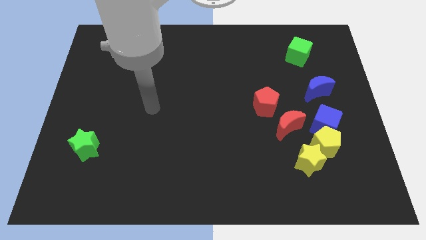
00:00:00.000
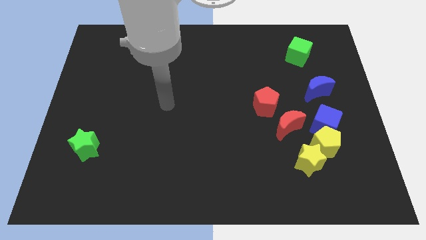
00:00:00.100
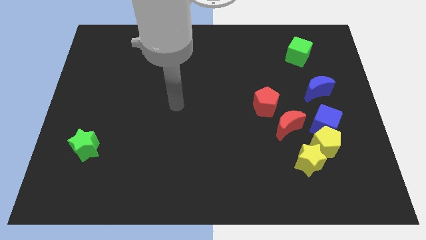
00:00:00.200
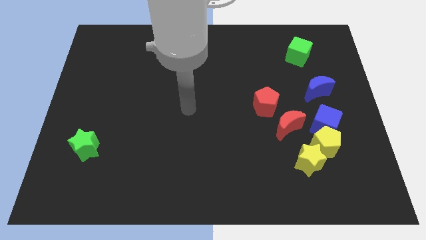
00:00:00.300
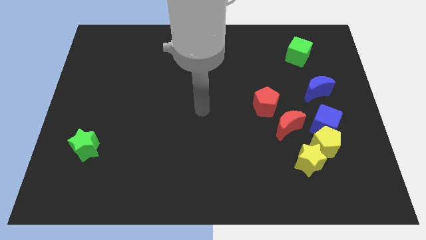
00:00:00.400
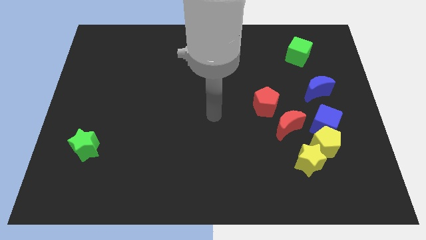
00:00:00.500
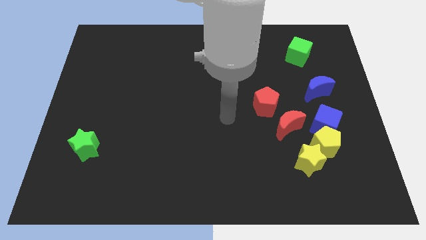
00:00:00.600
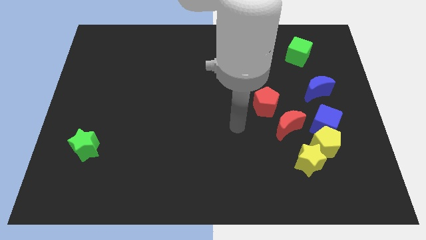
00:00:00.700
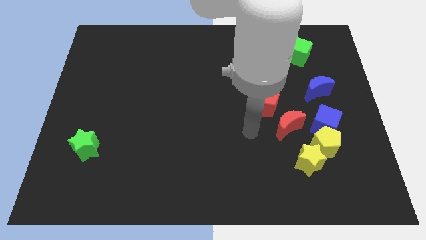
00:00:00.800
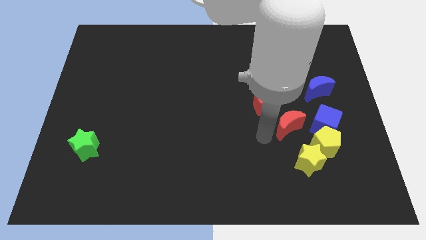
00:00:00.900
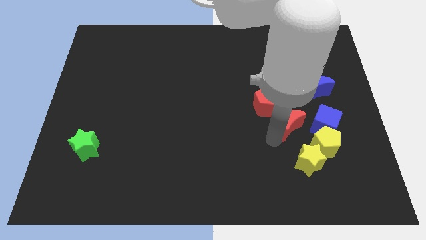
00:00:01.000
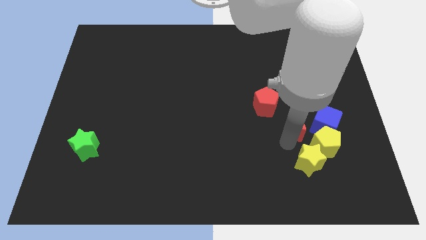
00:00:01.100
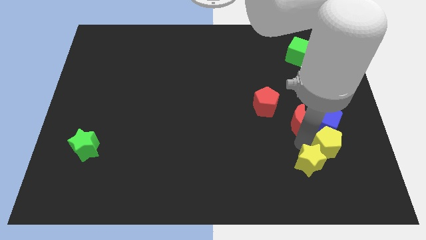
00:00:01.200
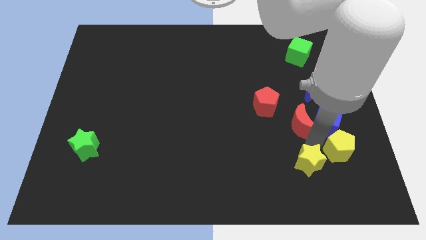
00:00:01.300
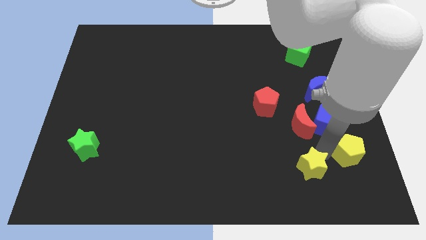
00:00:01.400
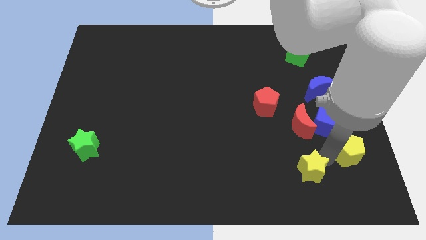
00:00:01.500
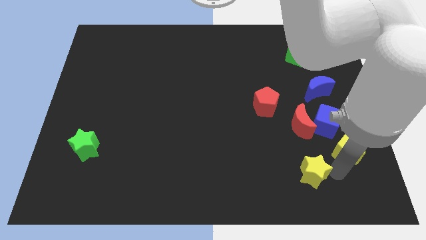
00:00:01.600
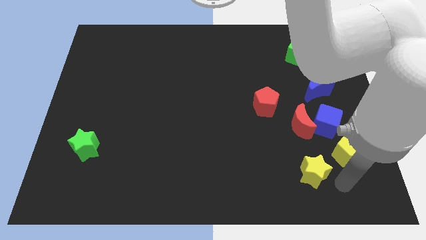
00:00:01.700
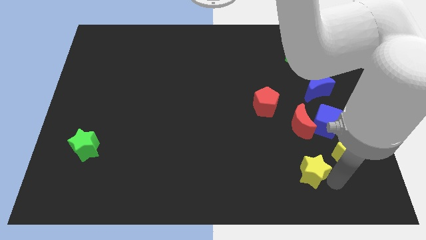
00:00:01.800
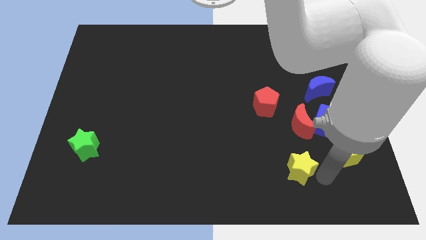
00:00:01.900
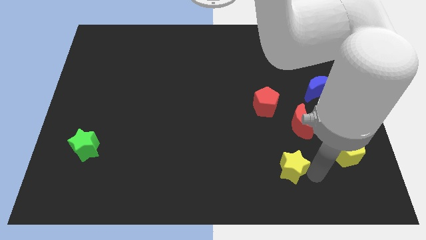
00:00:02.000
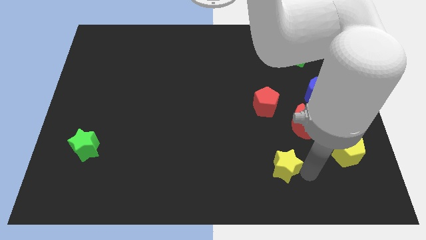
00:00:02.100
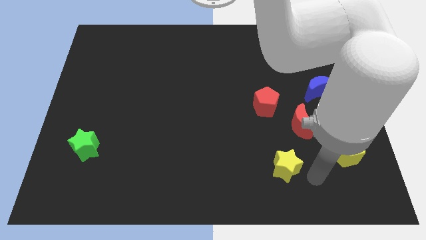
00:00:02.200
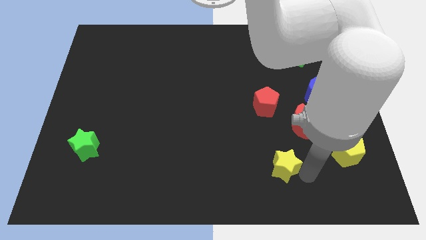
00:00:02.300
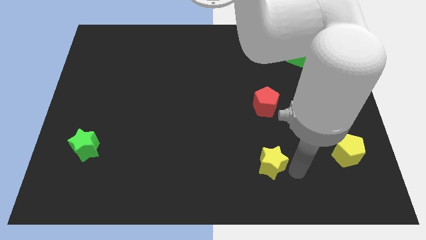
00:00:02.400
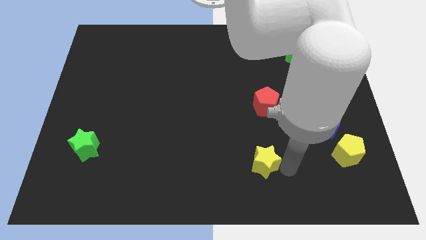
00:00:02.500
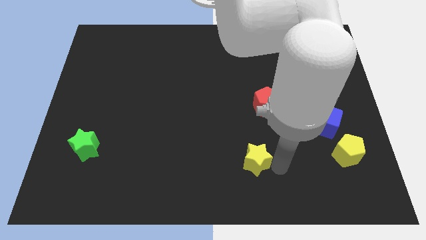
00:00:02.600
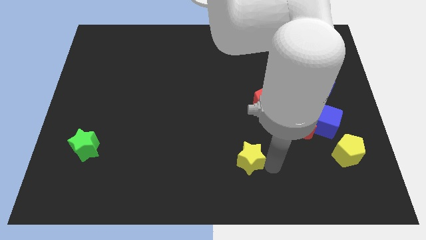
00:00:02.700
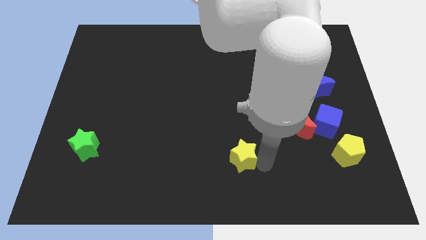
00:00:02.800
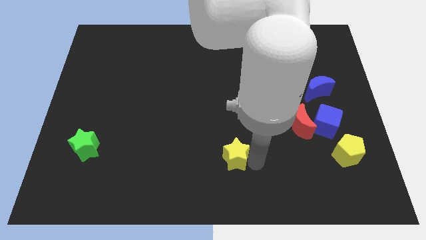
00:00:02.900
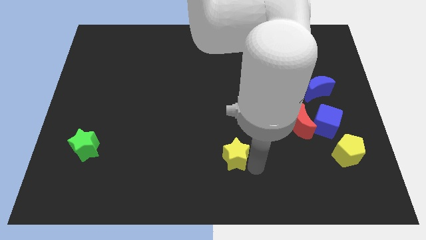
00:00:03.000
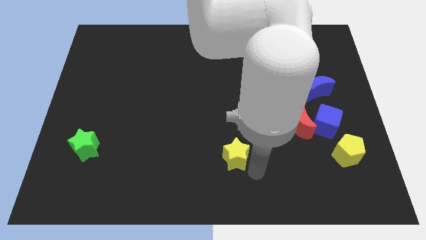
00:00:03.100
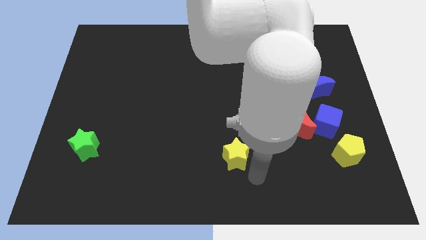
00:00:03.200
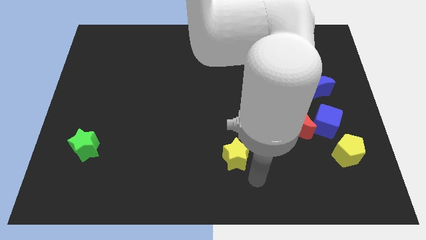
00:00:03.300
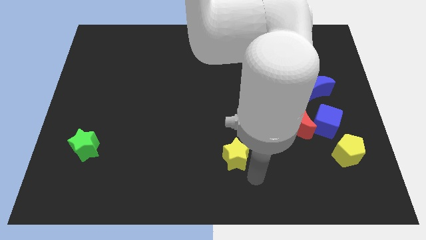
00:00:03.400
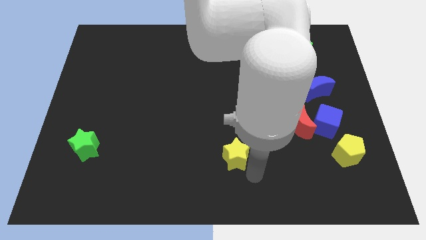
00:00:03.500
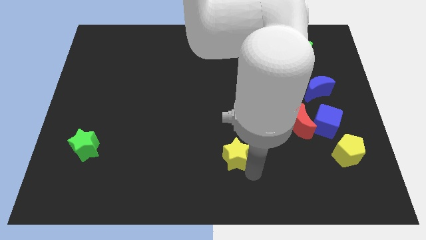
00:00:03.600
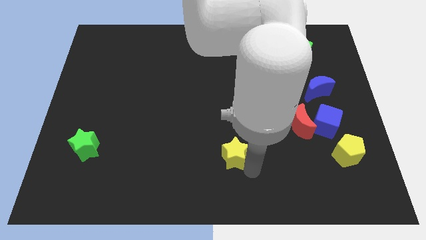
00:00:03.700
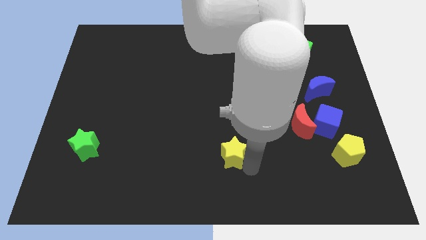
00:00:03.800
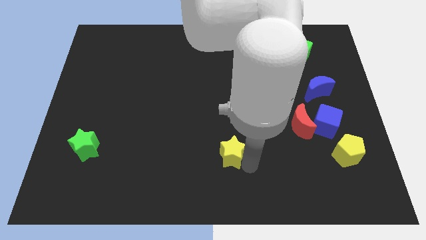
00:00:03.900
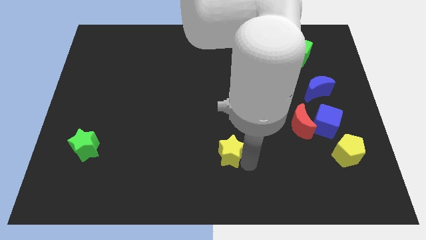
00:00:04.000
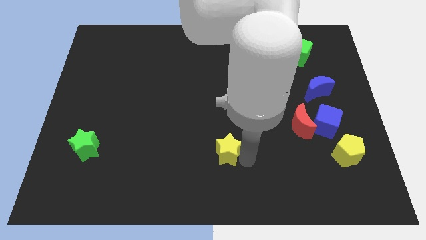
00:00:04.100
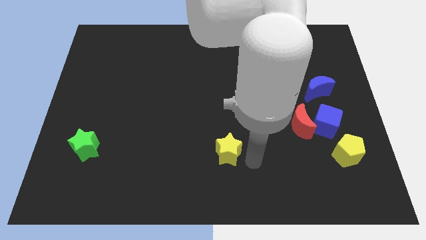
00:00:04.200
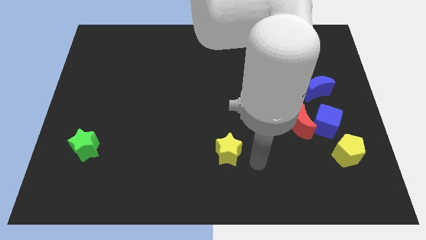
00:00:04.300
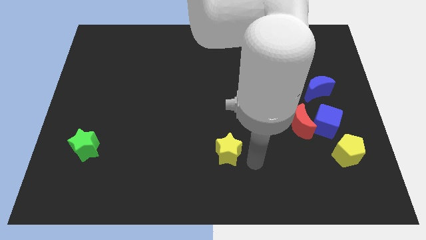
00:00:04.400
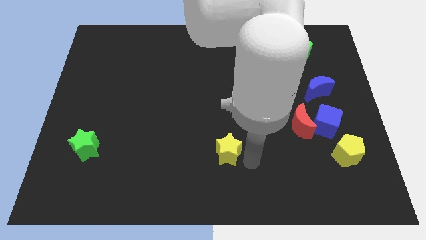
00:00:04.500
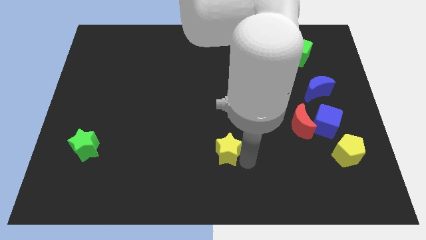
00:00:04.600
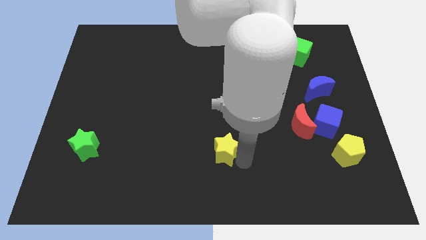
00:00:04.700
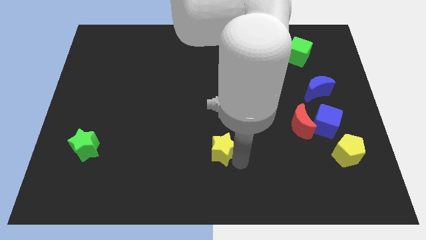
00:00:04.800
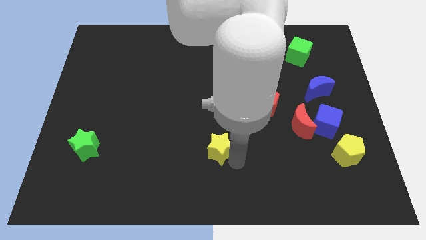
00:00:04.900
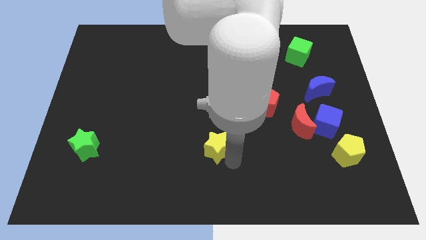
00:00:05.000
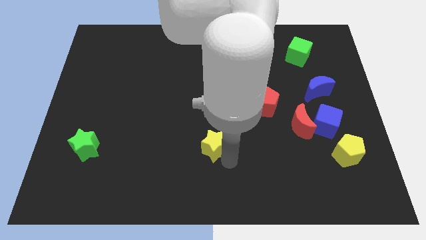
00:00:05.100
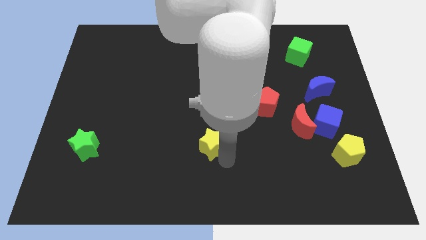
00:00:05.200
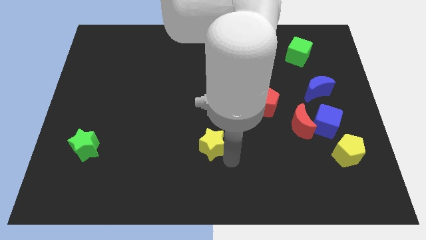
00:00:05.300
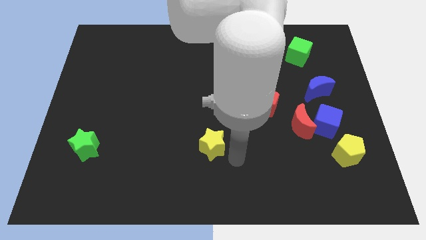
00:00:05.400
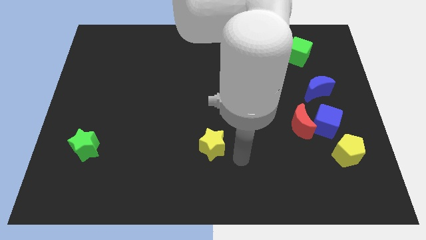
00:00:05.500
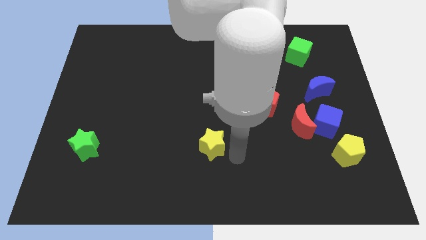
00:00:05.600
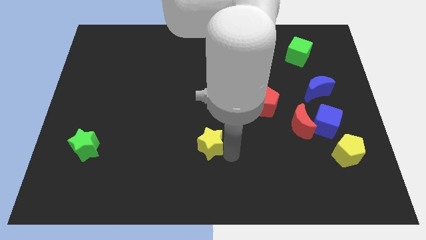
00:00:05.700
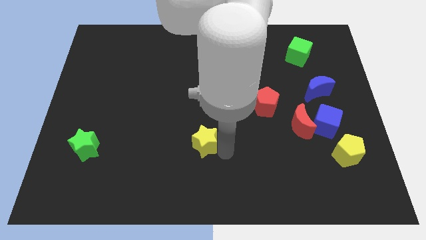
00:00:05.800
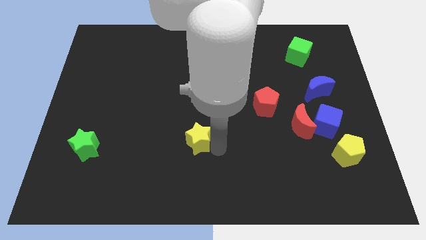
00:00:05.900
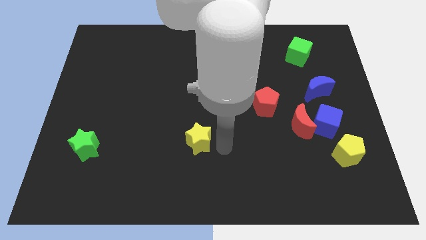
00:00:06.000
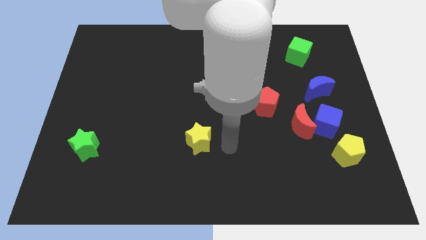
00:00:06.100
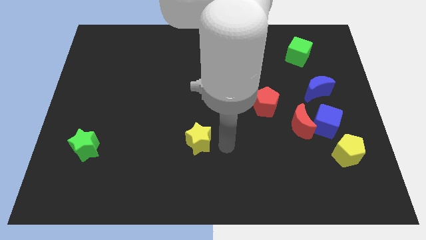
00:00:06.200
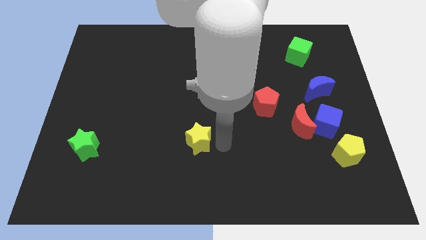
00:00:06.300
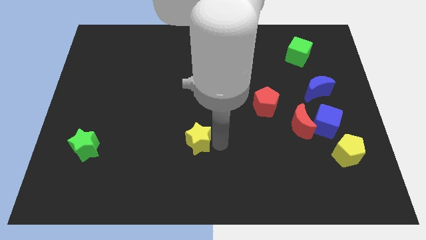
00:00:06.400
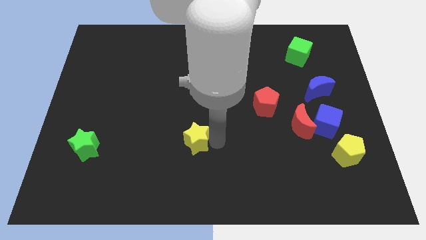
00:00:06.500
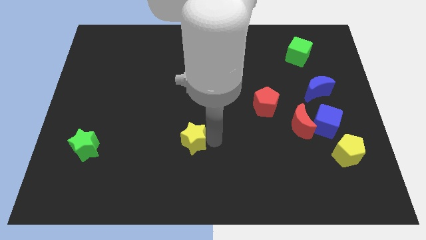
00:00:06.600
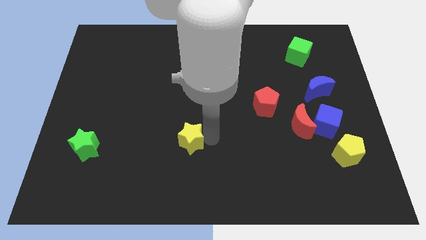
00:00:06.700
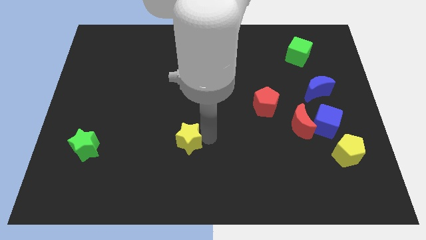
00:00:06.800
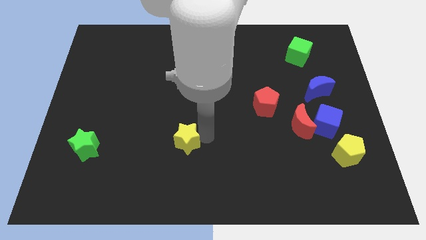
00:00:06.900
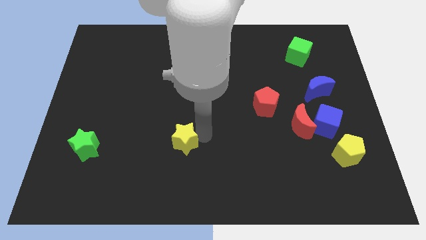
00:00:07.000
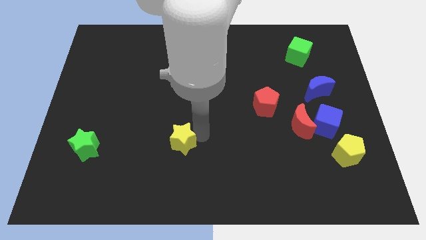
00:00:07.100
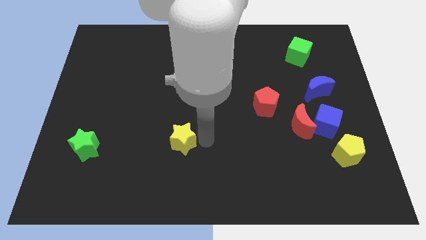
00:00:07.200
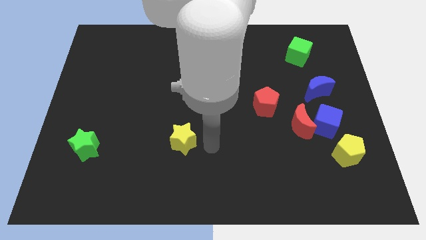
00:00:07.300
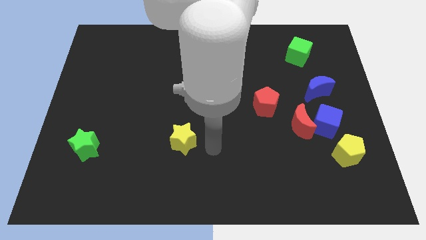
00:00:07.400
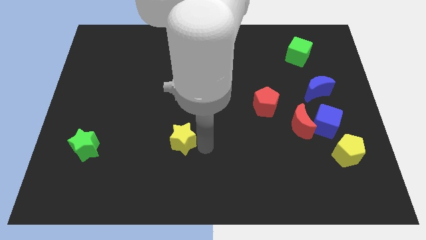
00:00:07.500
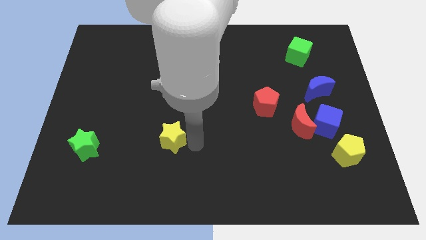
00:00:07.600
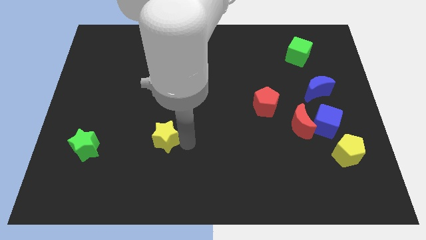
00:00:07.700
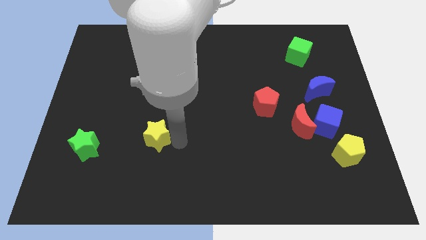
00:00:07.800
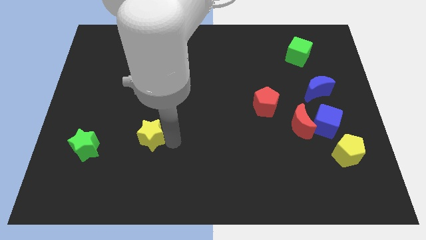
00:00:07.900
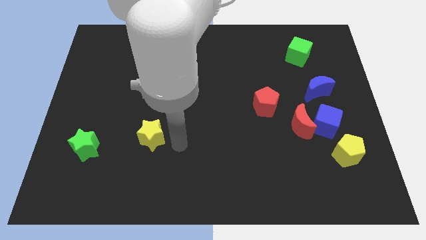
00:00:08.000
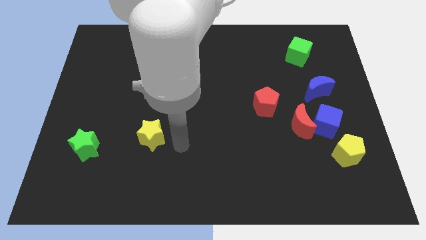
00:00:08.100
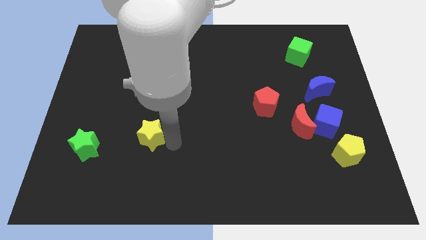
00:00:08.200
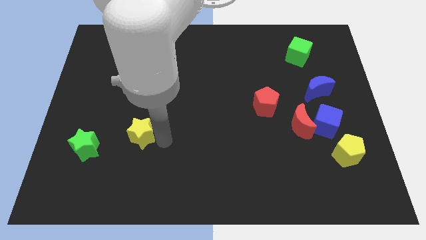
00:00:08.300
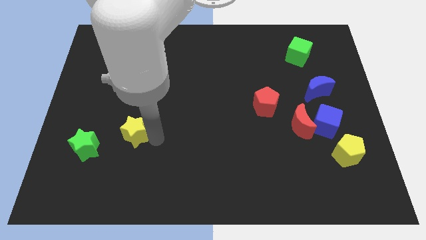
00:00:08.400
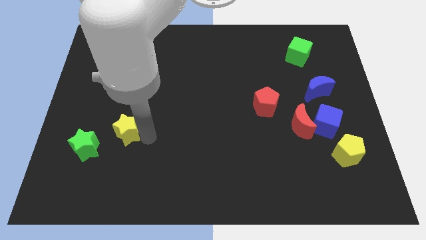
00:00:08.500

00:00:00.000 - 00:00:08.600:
push the yellow star to the top right of the green star
